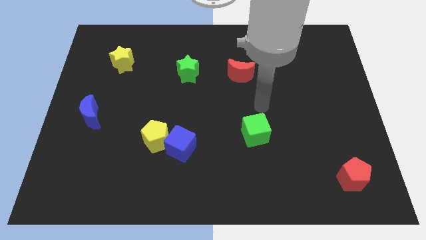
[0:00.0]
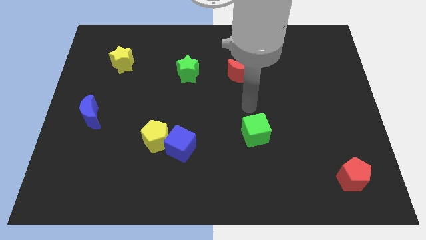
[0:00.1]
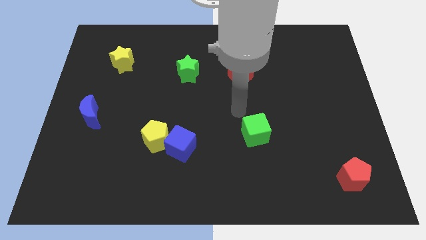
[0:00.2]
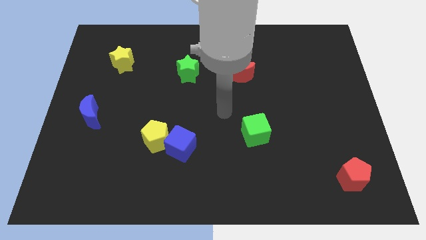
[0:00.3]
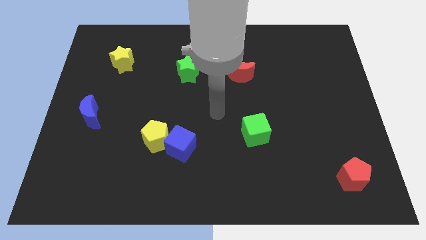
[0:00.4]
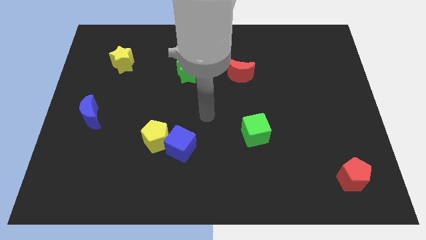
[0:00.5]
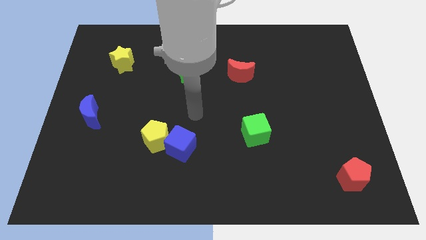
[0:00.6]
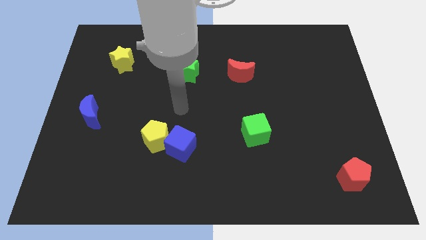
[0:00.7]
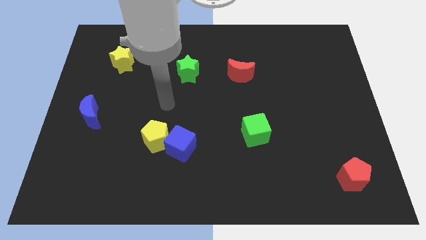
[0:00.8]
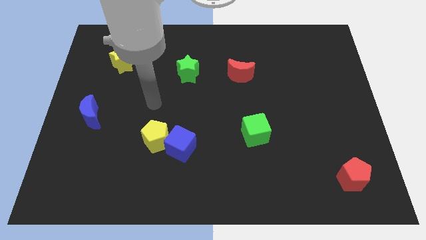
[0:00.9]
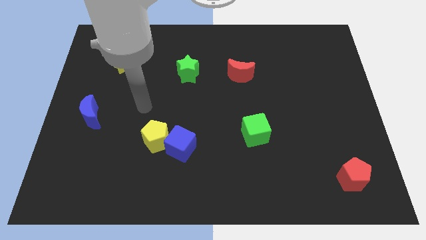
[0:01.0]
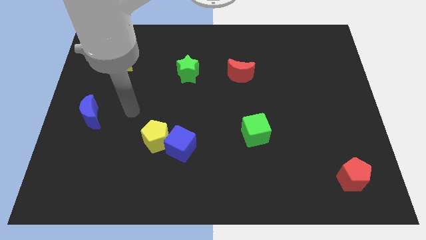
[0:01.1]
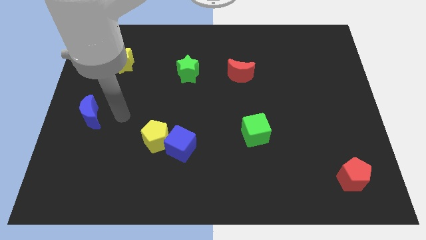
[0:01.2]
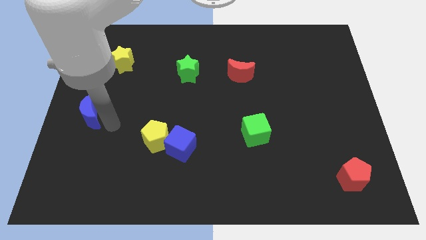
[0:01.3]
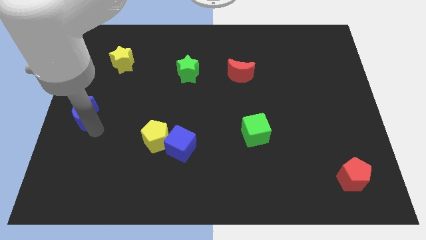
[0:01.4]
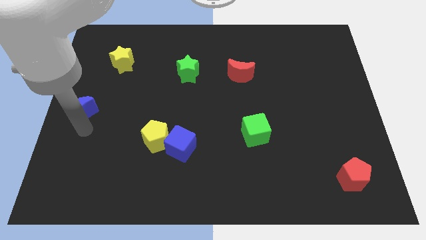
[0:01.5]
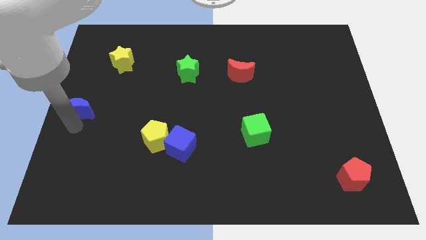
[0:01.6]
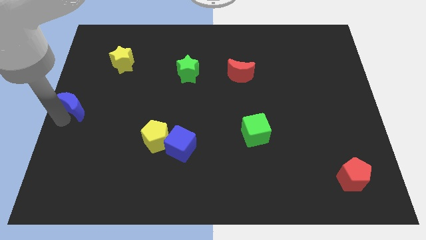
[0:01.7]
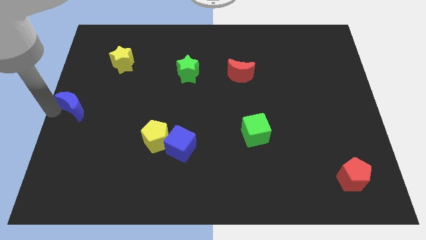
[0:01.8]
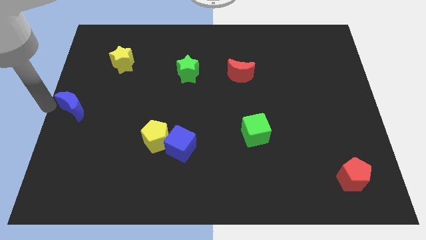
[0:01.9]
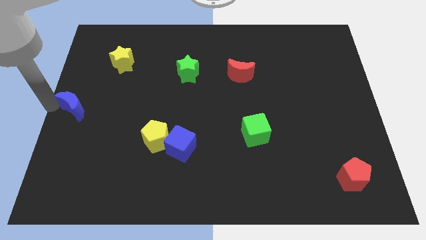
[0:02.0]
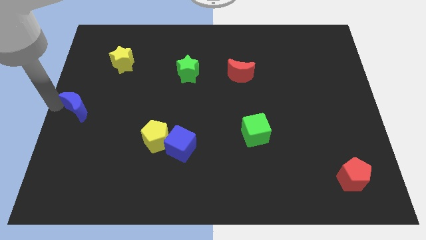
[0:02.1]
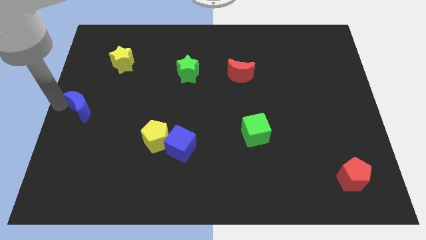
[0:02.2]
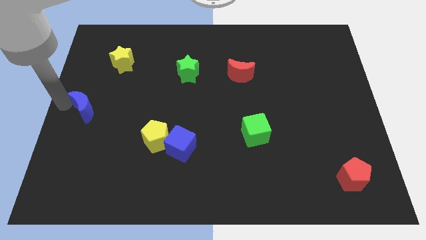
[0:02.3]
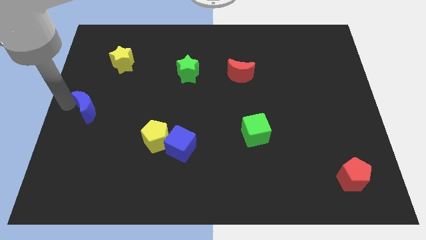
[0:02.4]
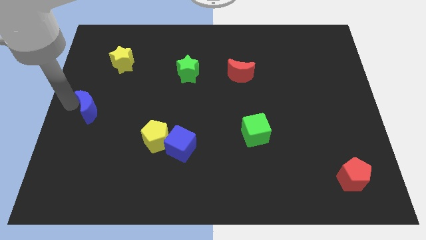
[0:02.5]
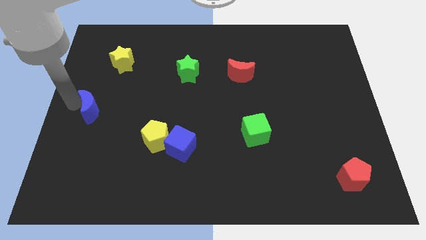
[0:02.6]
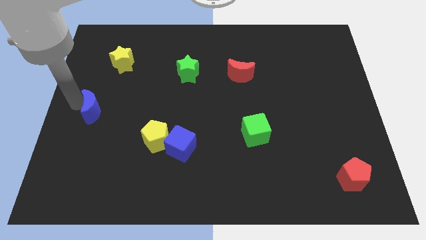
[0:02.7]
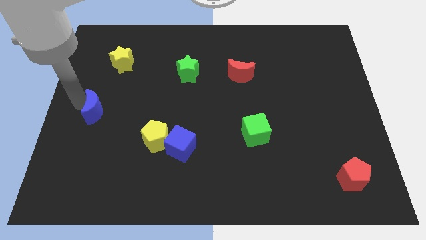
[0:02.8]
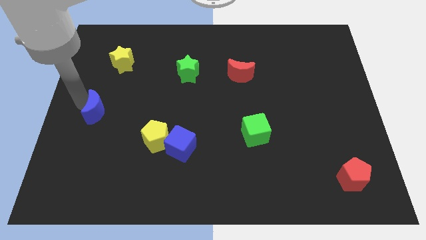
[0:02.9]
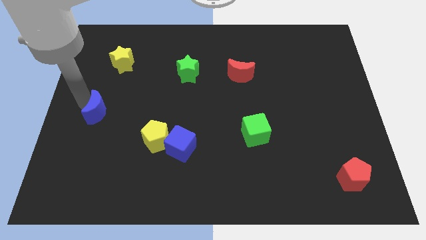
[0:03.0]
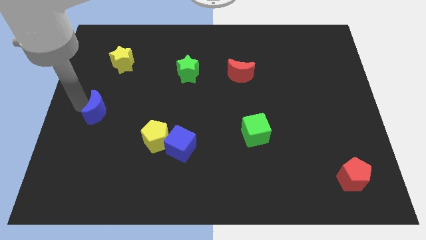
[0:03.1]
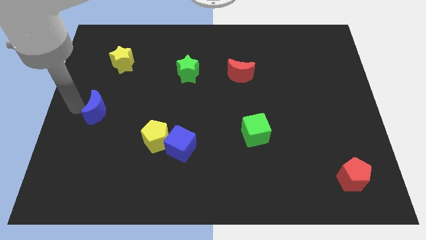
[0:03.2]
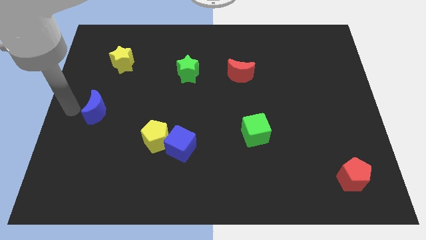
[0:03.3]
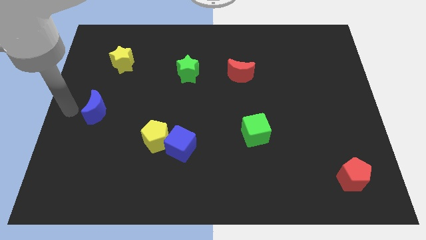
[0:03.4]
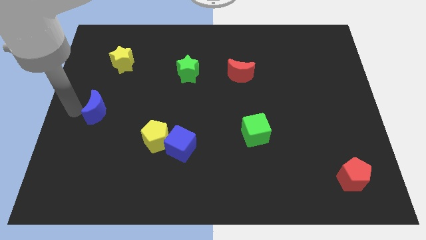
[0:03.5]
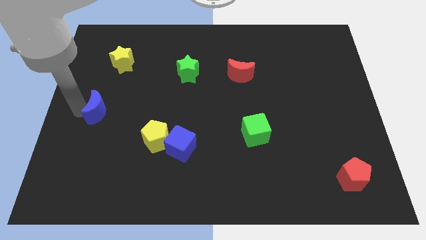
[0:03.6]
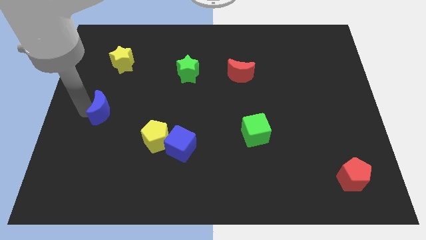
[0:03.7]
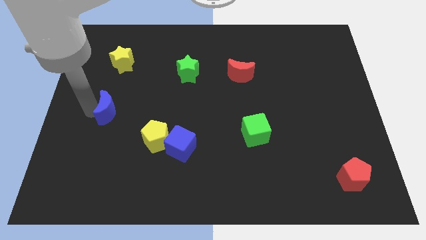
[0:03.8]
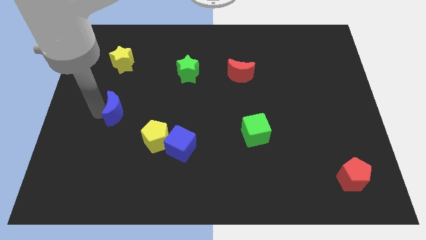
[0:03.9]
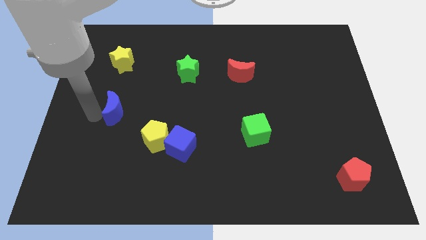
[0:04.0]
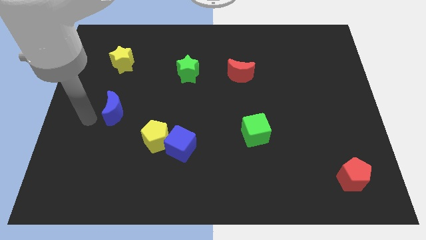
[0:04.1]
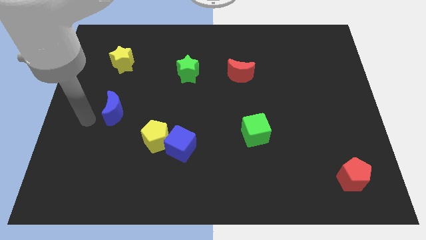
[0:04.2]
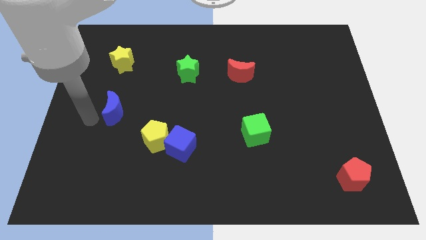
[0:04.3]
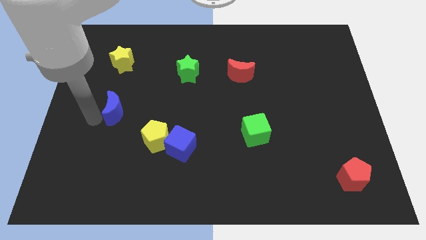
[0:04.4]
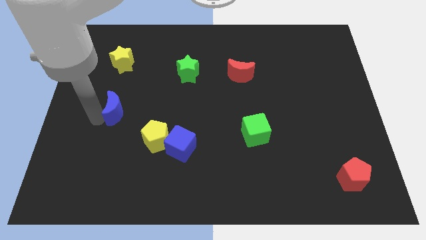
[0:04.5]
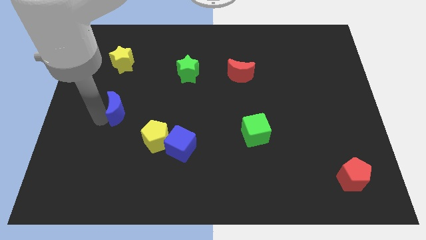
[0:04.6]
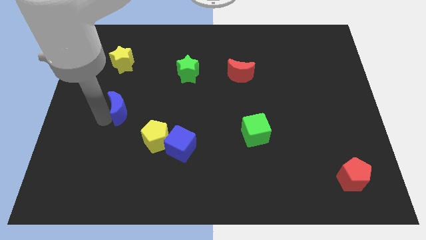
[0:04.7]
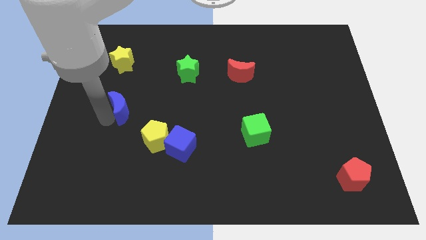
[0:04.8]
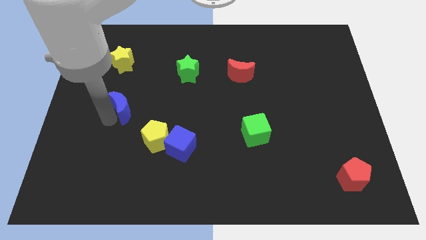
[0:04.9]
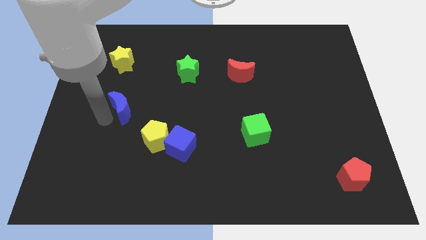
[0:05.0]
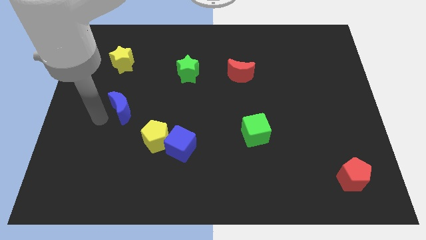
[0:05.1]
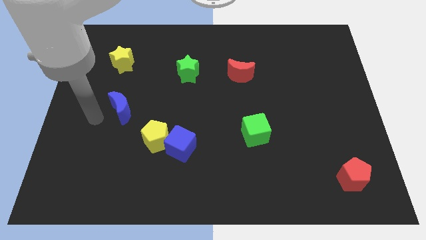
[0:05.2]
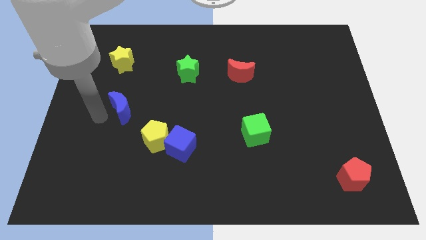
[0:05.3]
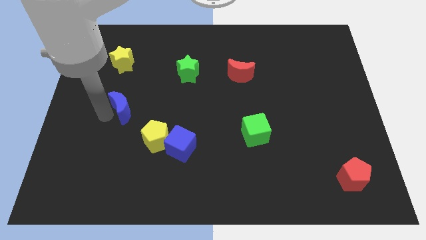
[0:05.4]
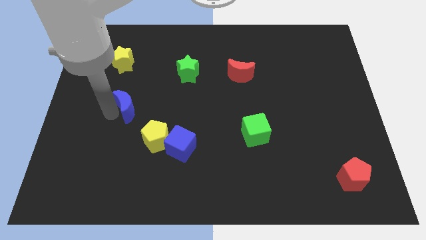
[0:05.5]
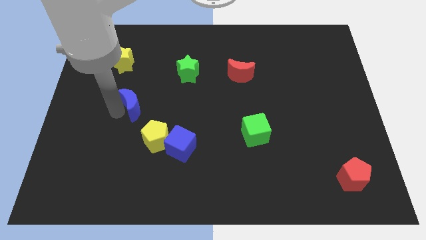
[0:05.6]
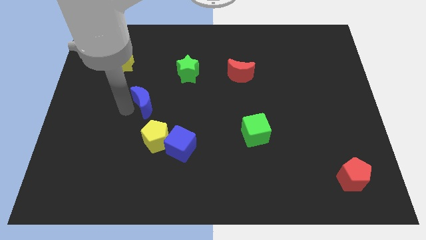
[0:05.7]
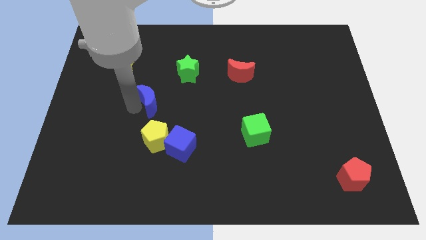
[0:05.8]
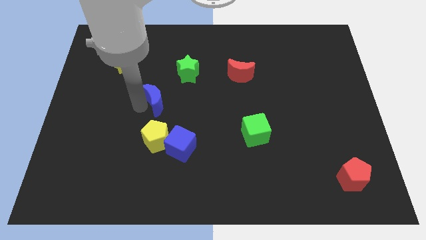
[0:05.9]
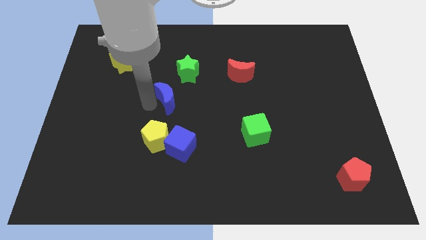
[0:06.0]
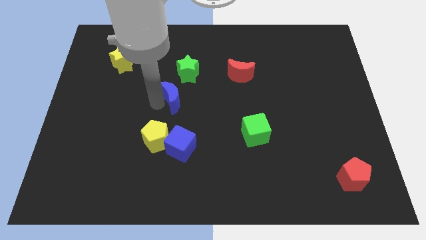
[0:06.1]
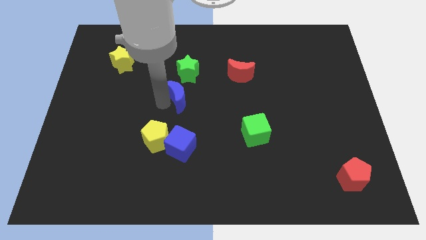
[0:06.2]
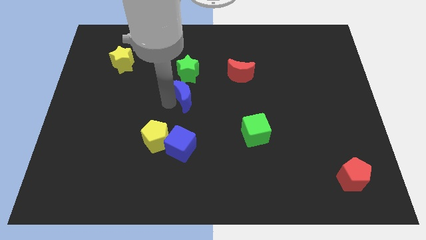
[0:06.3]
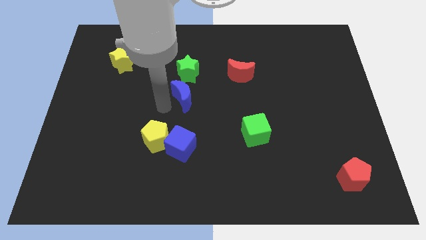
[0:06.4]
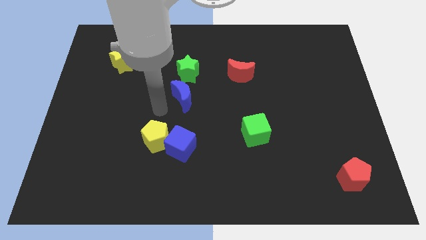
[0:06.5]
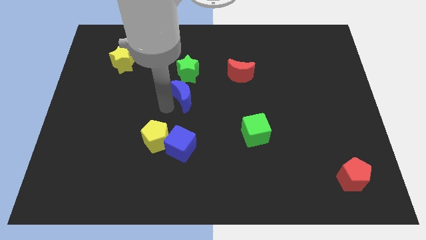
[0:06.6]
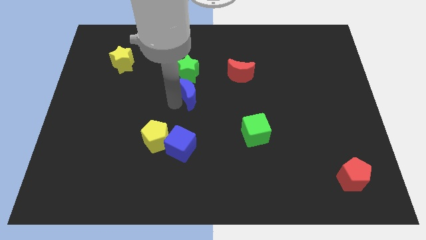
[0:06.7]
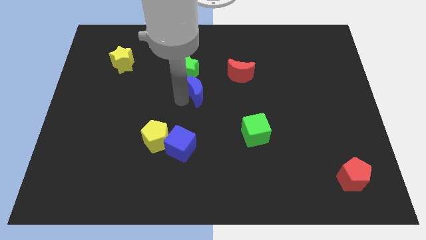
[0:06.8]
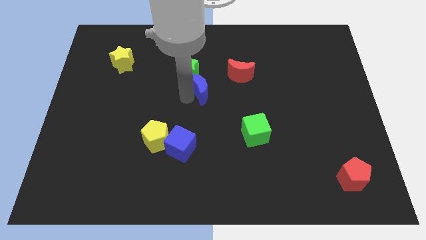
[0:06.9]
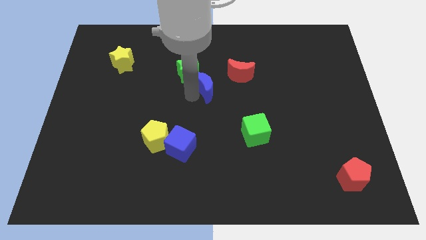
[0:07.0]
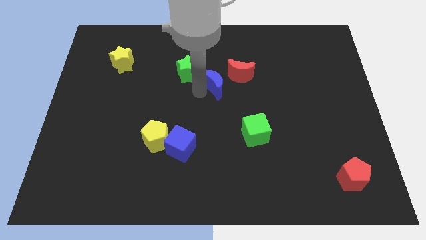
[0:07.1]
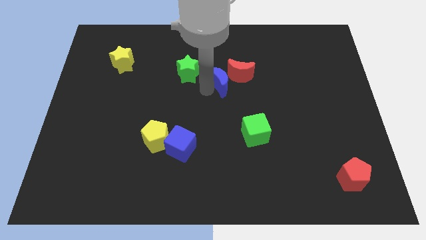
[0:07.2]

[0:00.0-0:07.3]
move the blue moon to the red moon
